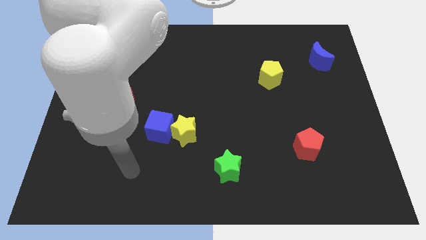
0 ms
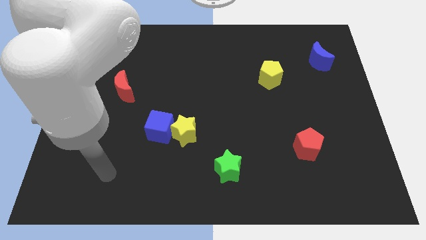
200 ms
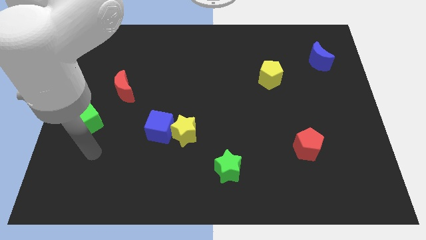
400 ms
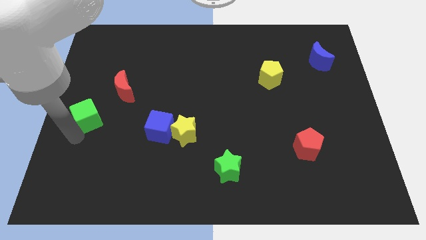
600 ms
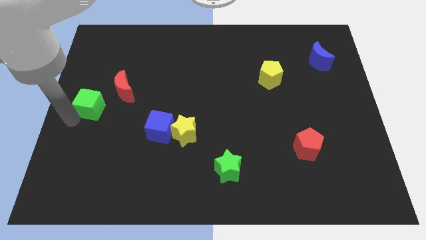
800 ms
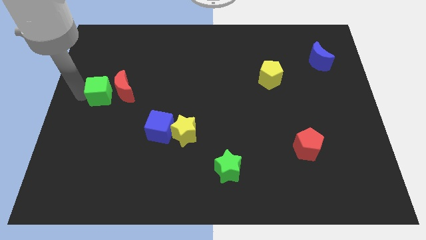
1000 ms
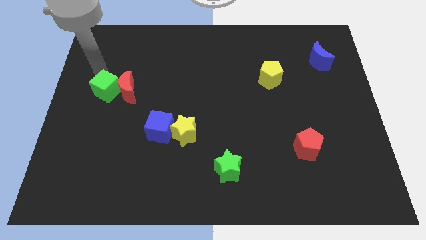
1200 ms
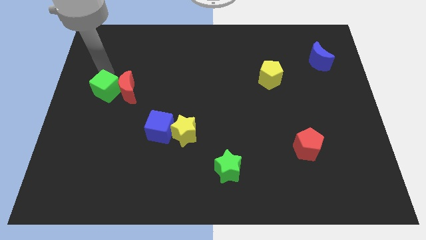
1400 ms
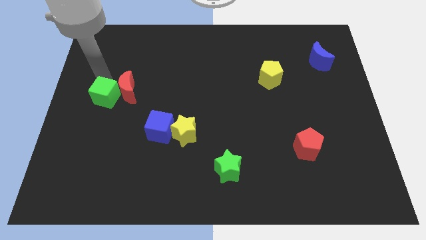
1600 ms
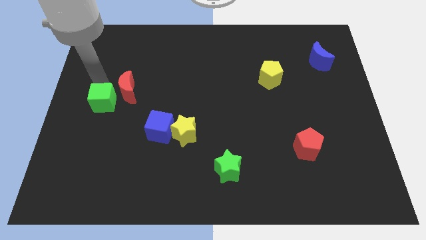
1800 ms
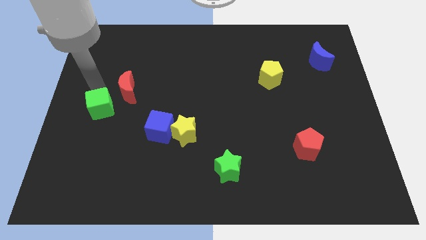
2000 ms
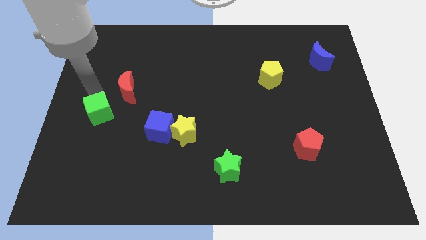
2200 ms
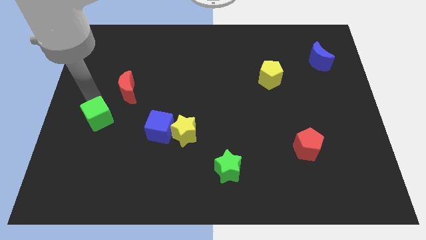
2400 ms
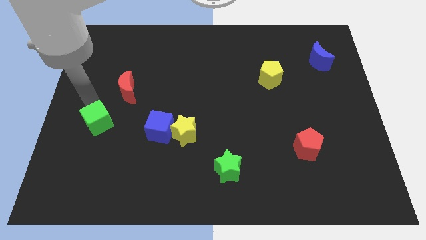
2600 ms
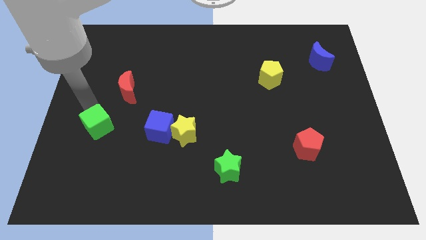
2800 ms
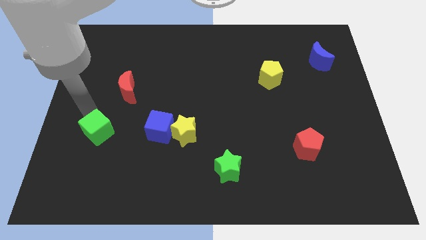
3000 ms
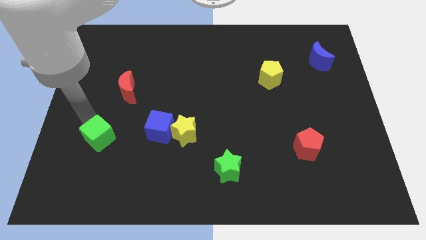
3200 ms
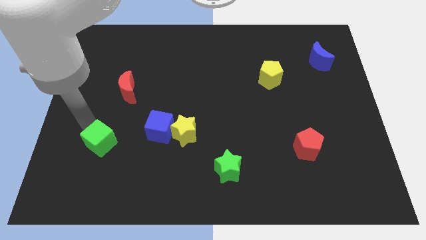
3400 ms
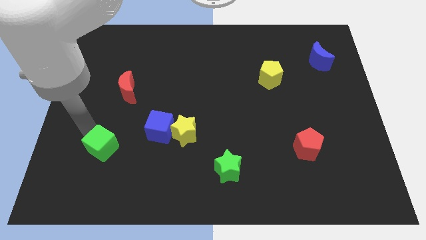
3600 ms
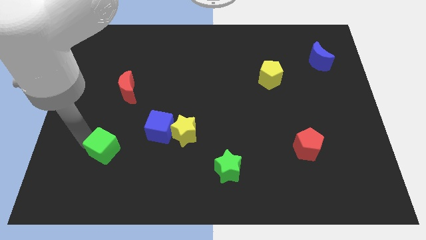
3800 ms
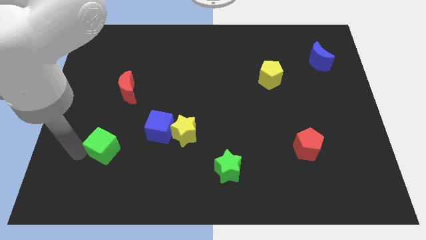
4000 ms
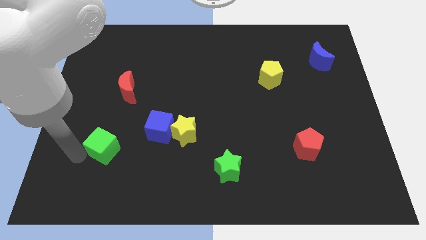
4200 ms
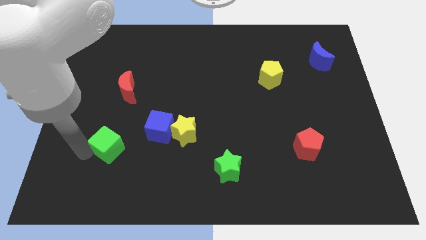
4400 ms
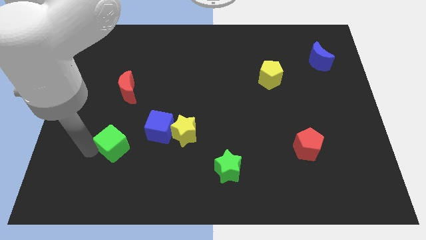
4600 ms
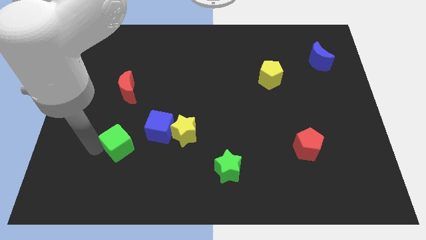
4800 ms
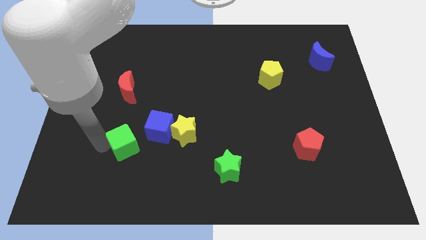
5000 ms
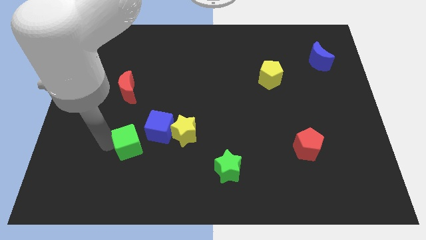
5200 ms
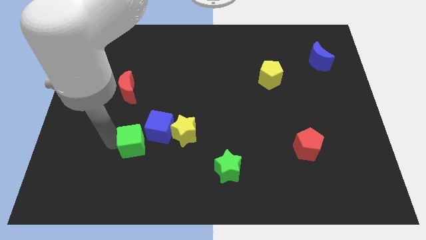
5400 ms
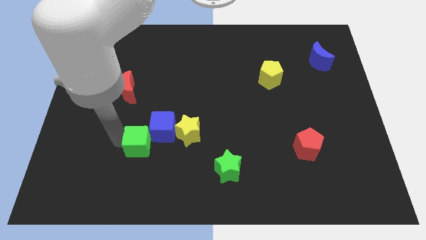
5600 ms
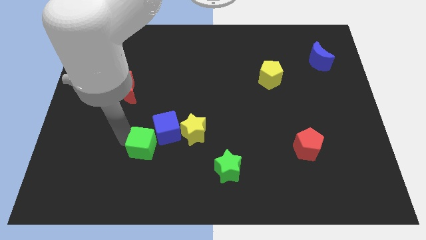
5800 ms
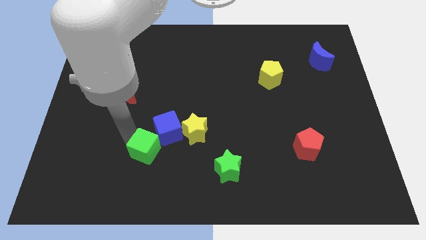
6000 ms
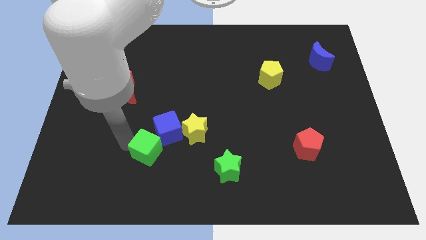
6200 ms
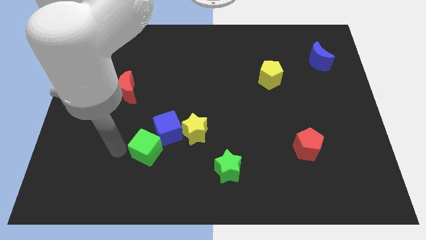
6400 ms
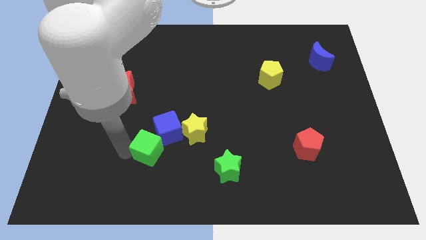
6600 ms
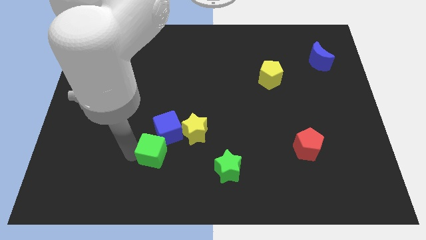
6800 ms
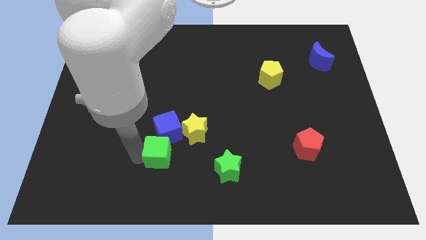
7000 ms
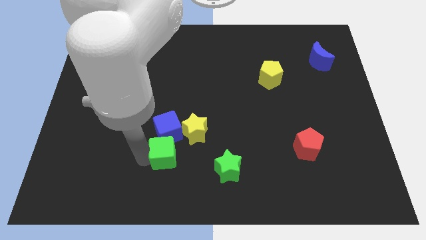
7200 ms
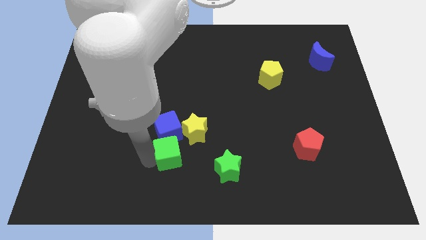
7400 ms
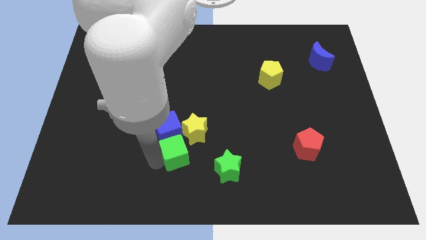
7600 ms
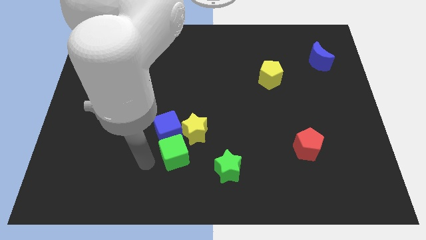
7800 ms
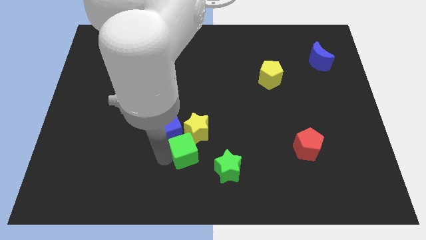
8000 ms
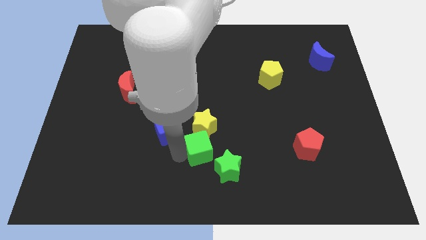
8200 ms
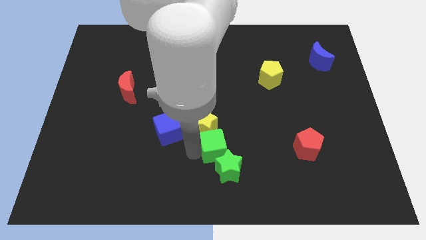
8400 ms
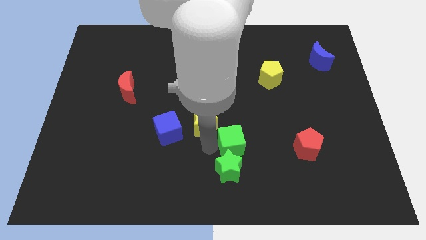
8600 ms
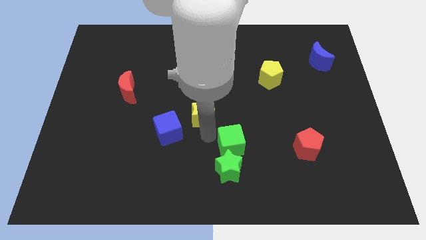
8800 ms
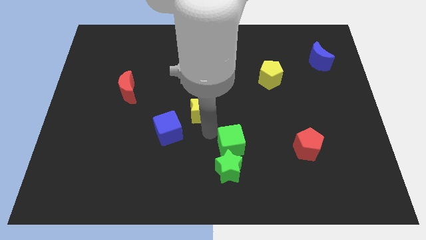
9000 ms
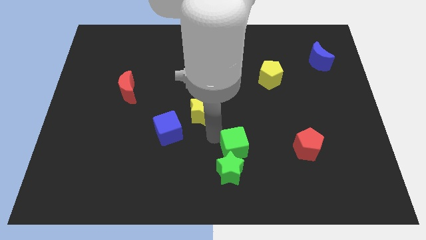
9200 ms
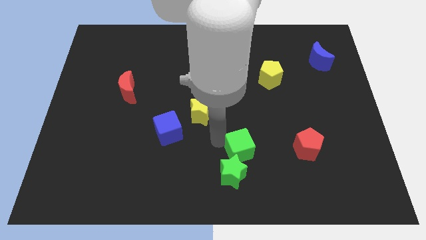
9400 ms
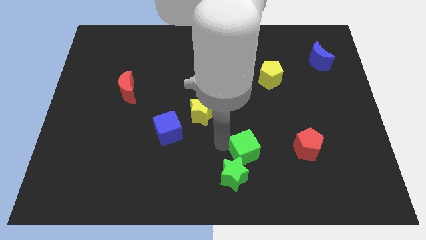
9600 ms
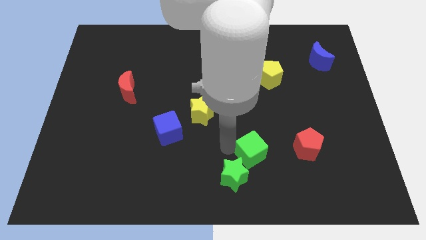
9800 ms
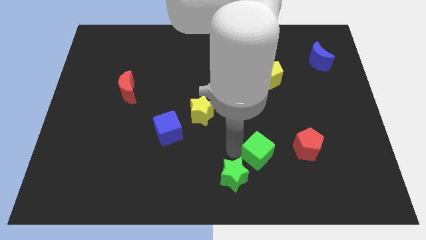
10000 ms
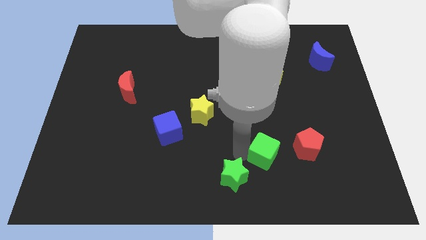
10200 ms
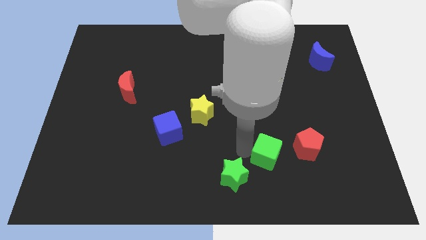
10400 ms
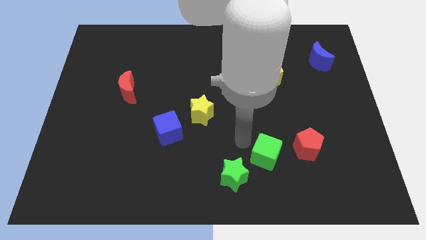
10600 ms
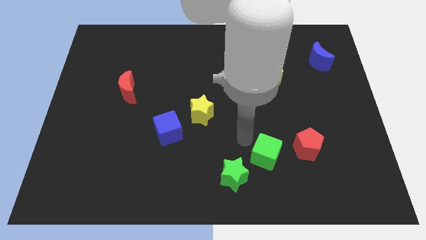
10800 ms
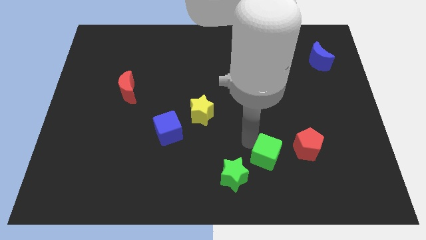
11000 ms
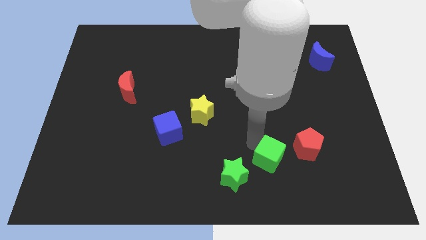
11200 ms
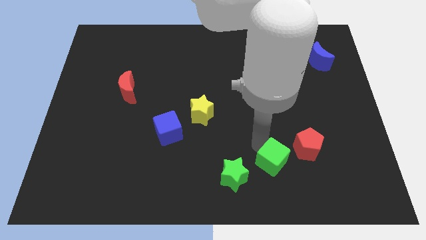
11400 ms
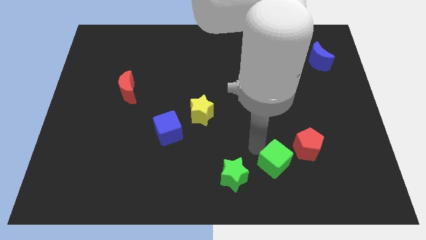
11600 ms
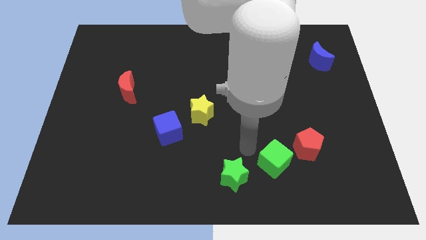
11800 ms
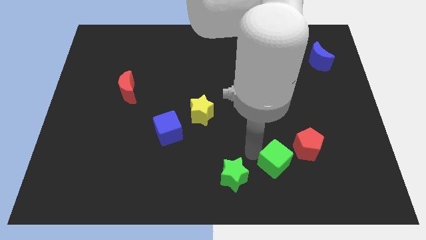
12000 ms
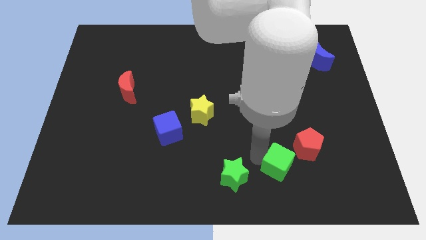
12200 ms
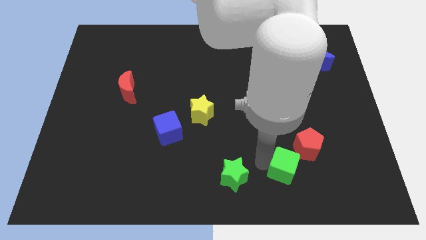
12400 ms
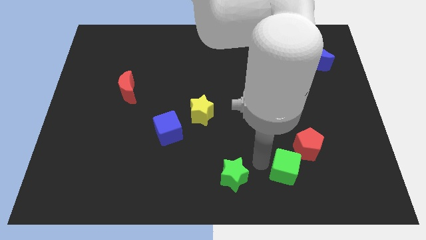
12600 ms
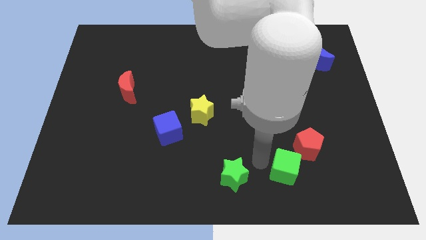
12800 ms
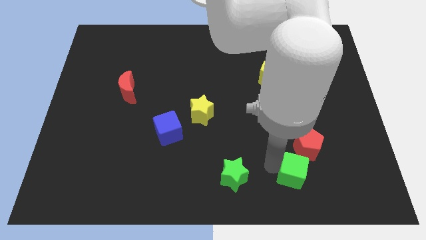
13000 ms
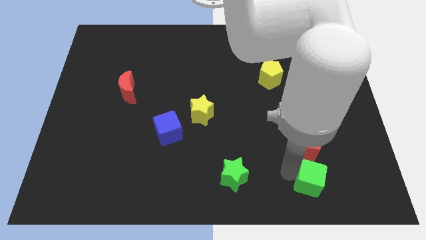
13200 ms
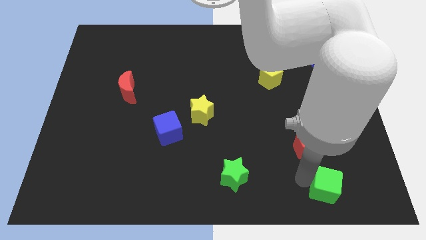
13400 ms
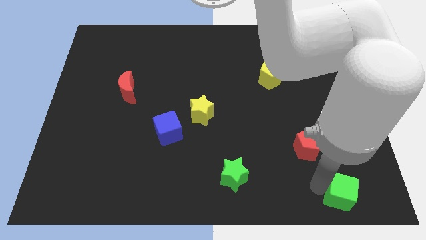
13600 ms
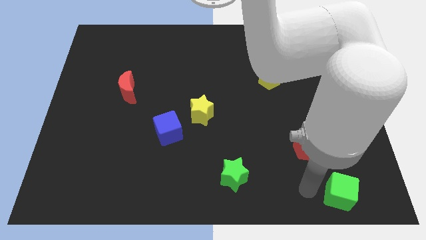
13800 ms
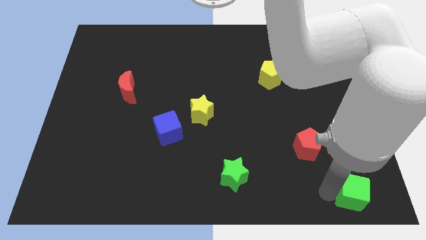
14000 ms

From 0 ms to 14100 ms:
slide the green cube to the bottom right corner
